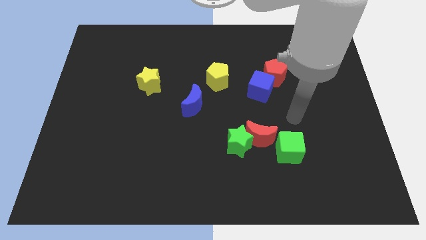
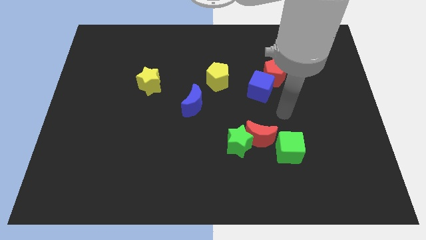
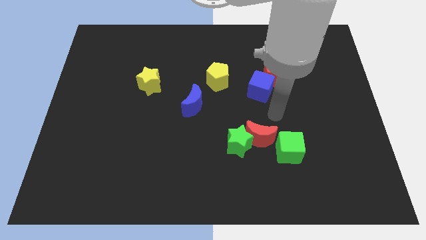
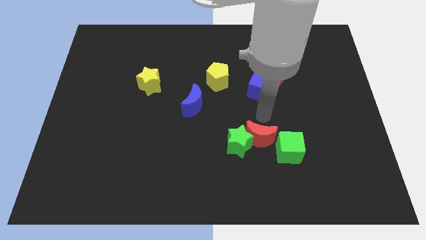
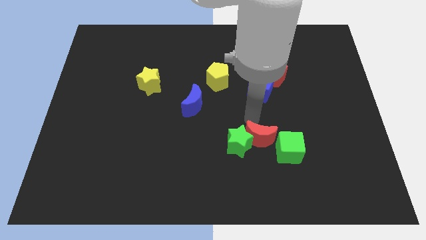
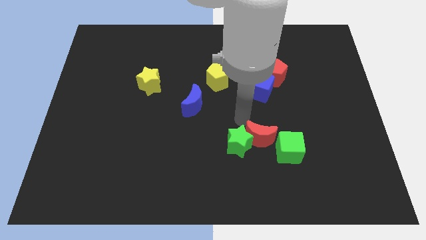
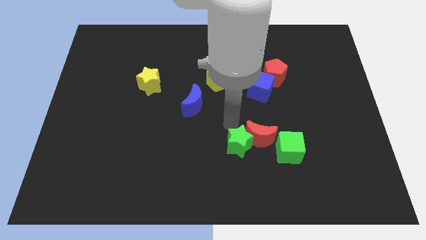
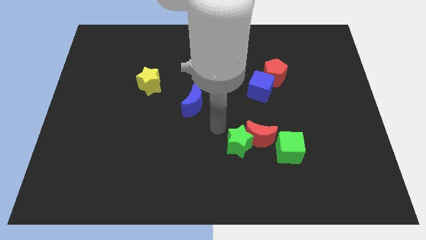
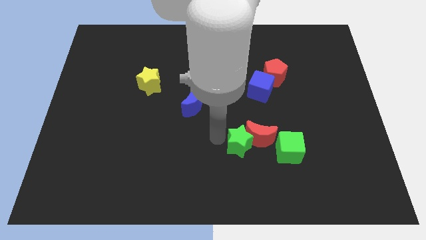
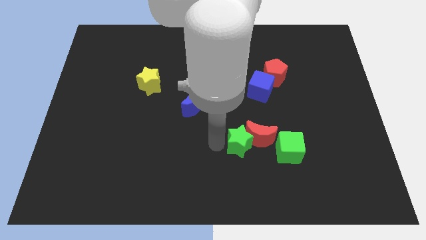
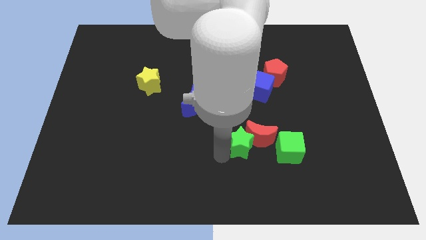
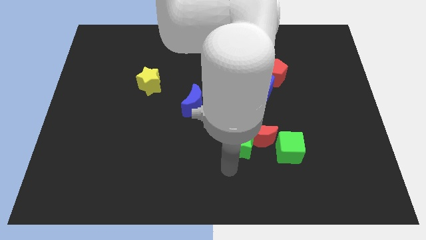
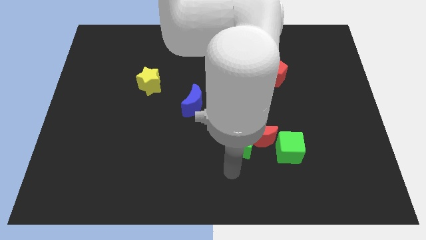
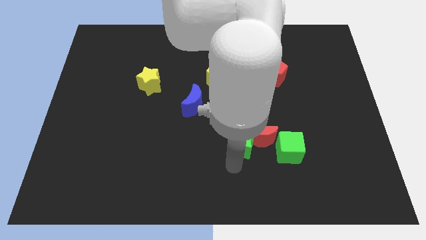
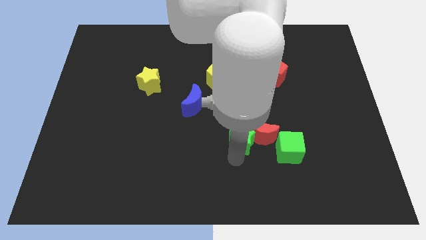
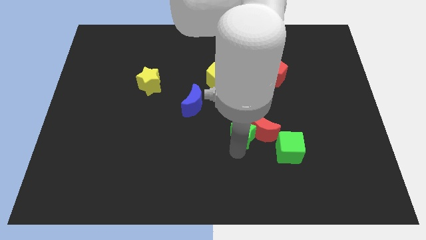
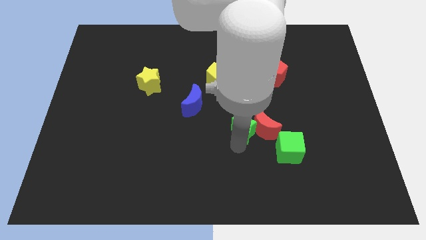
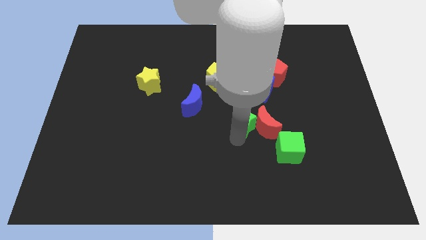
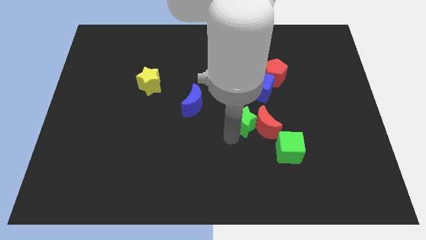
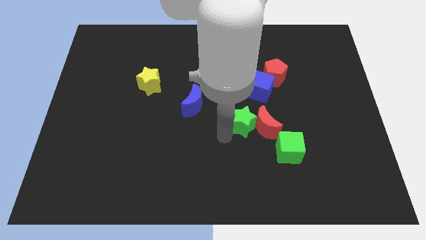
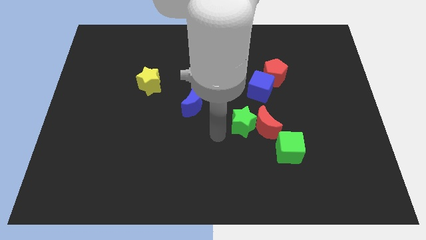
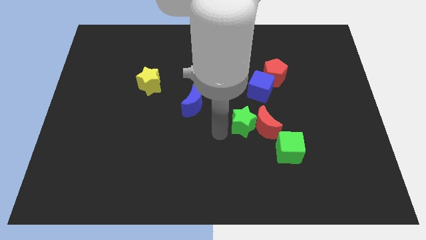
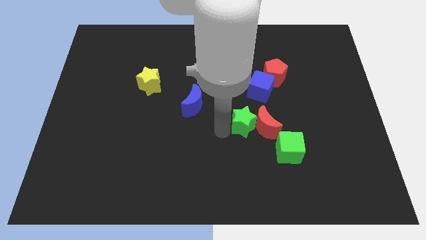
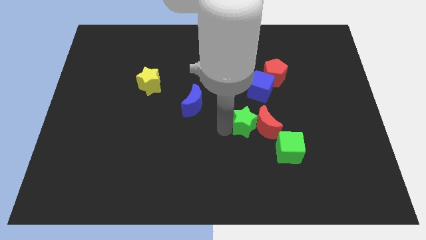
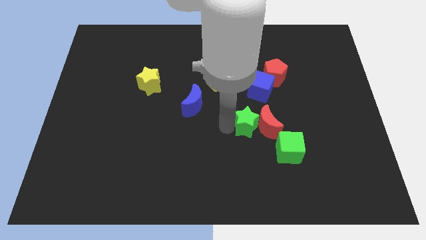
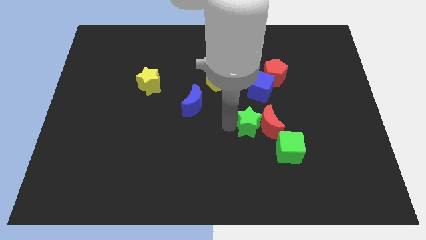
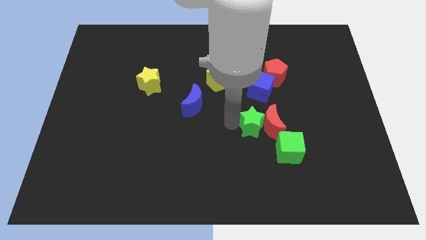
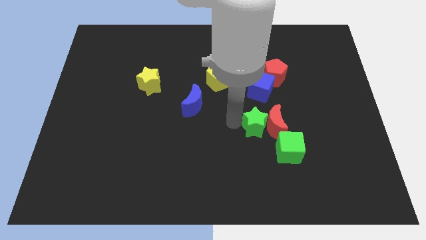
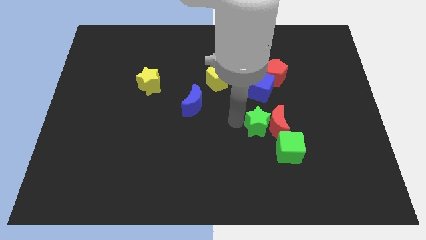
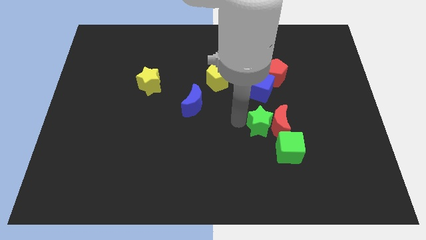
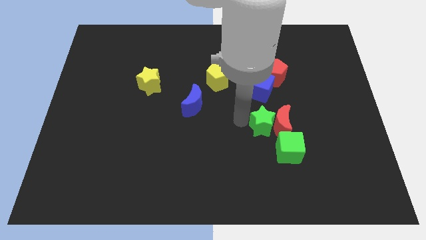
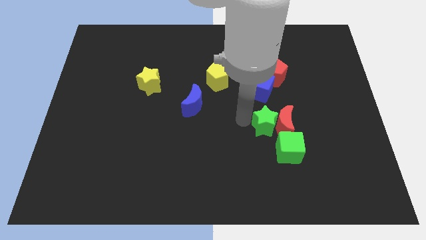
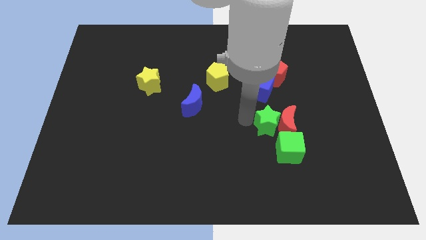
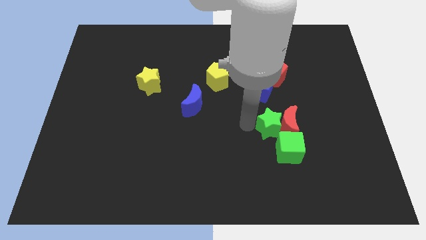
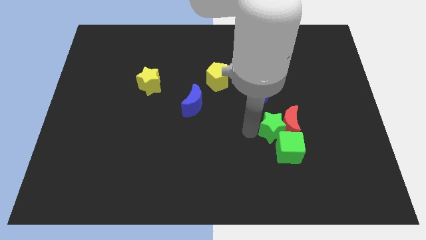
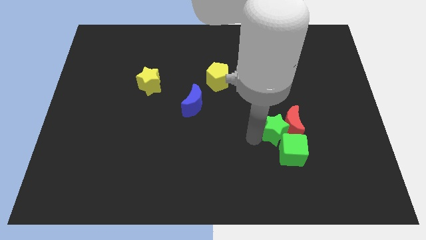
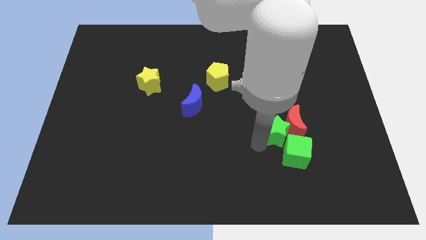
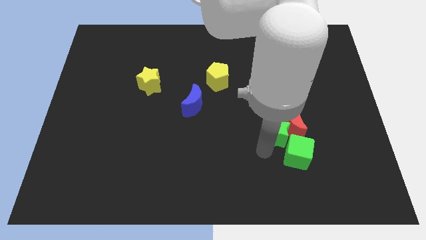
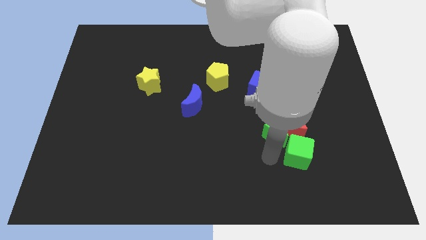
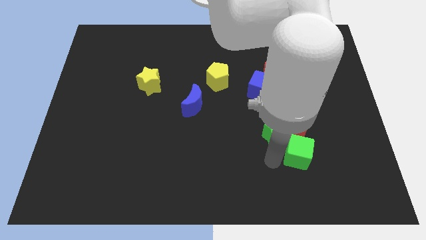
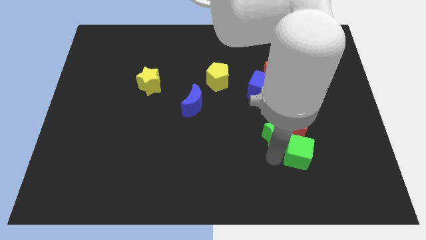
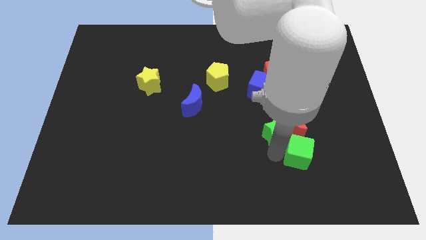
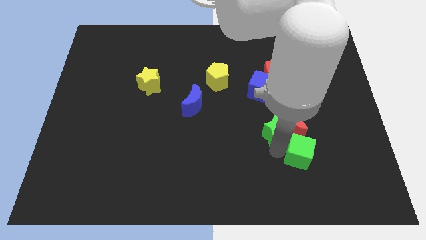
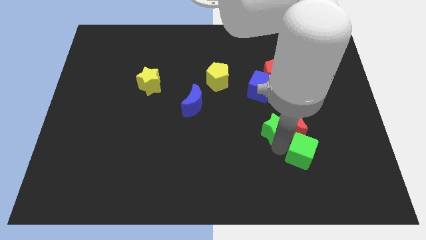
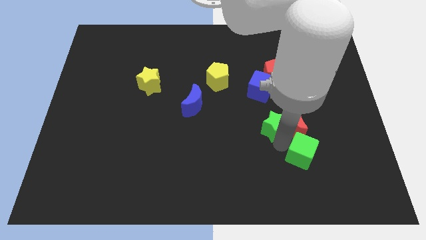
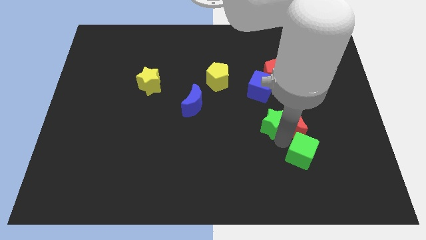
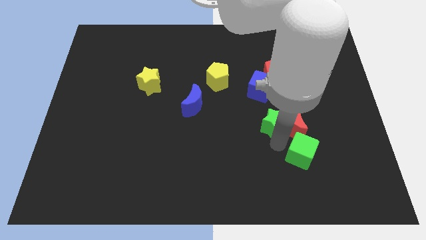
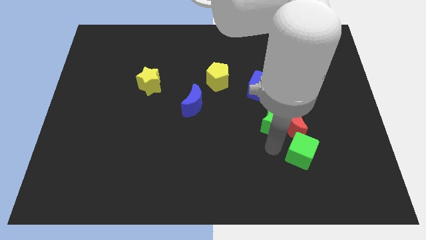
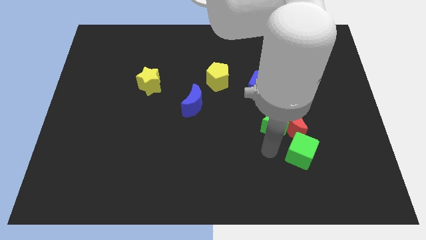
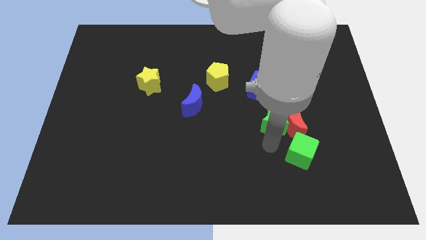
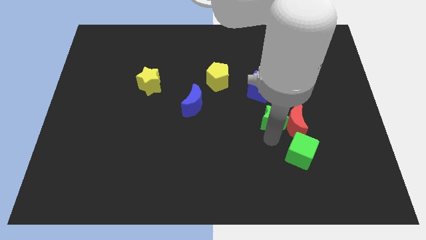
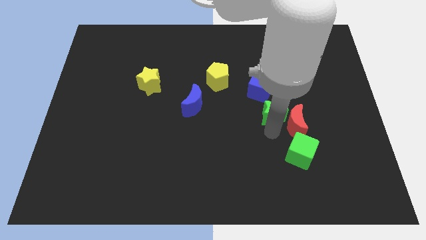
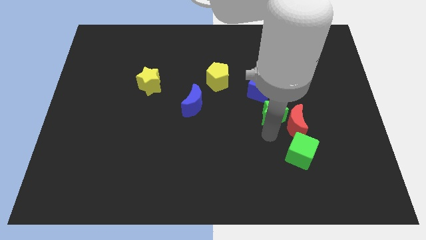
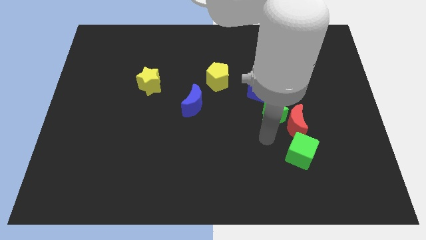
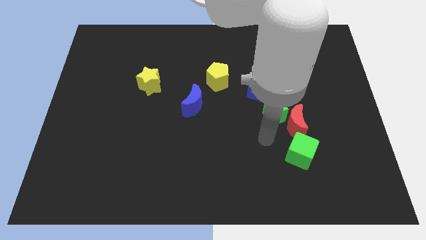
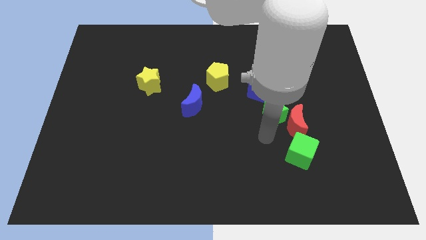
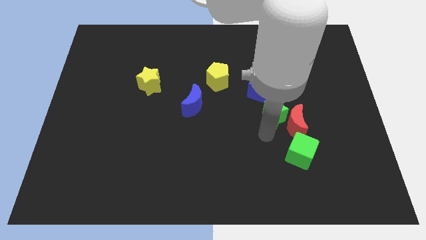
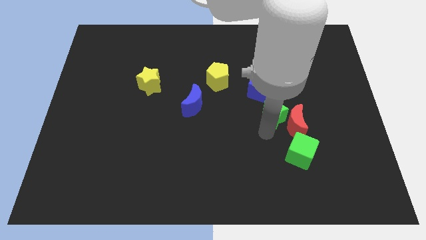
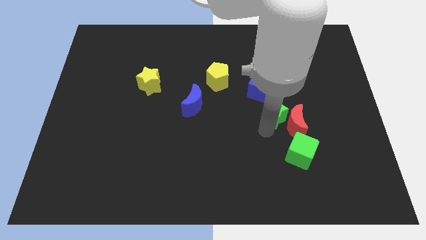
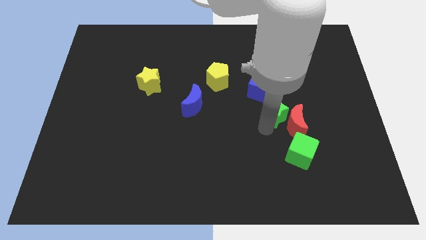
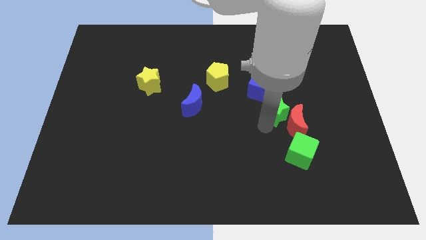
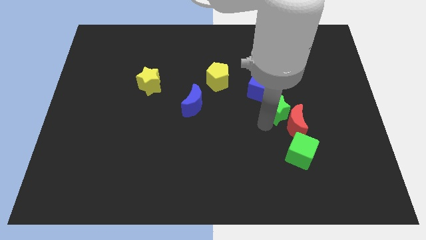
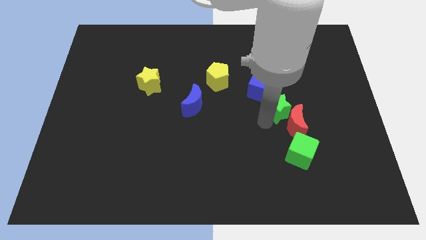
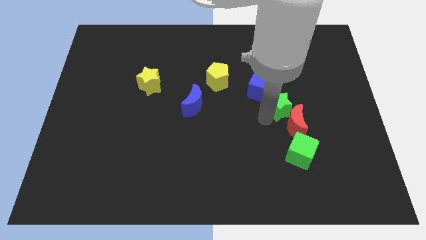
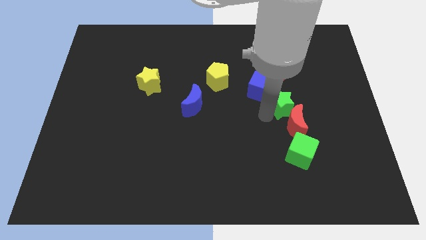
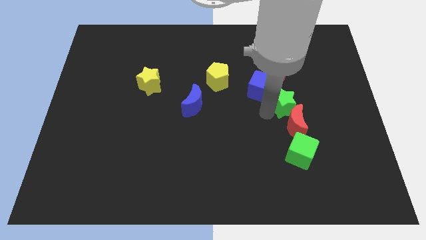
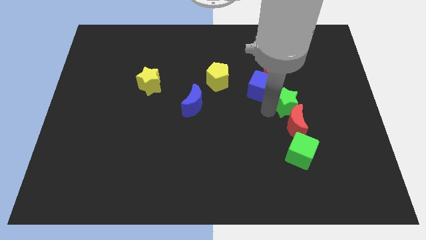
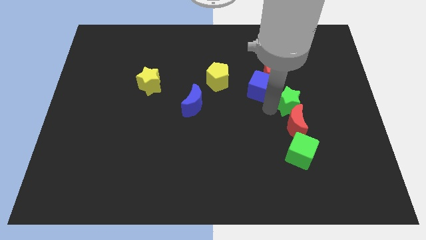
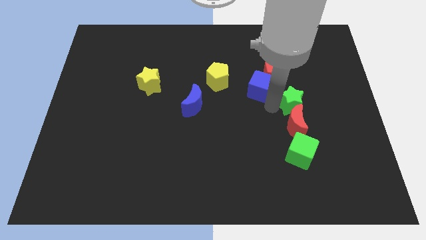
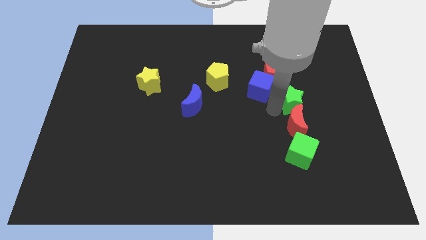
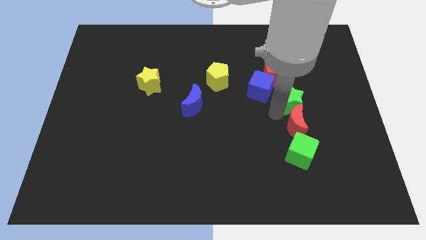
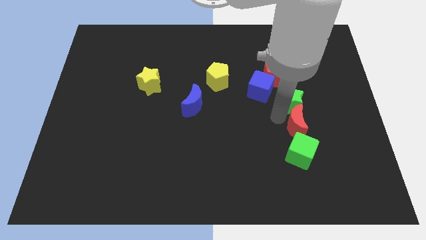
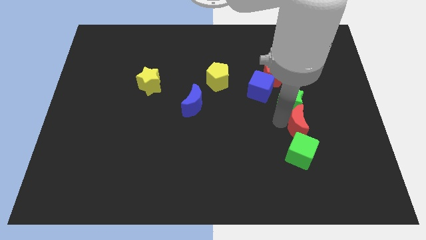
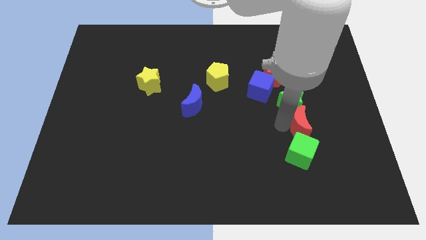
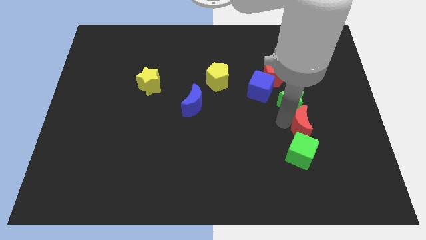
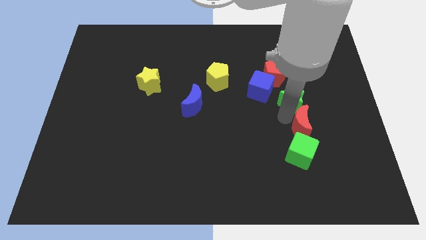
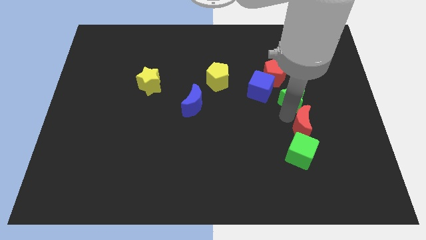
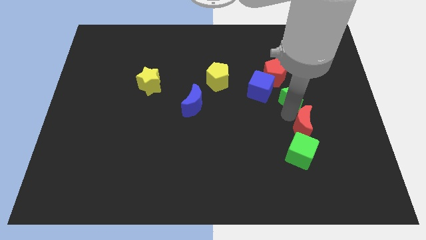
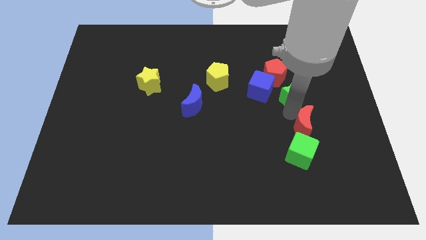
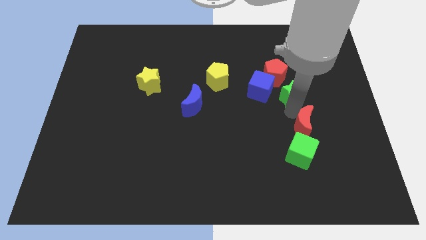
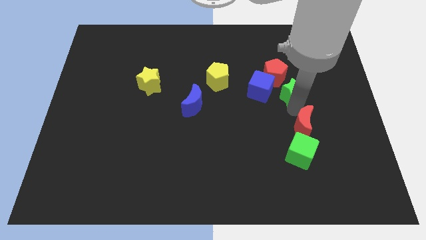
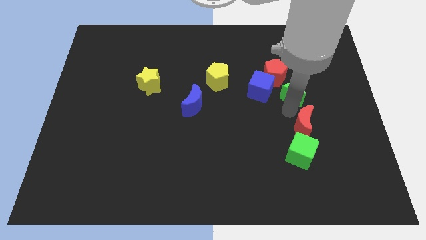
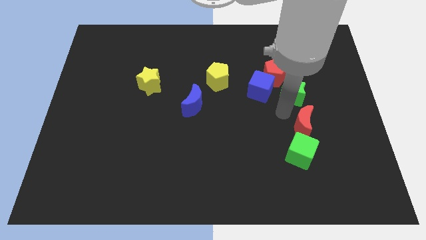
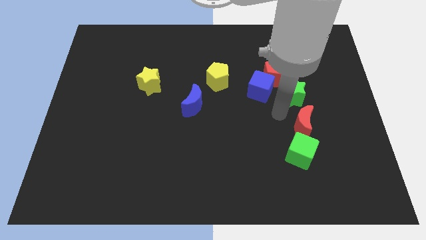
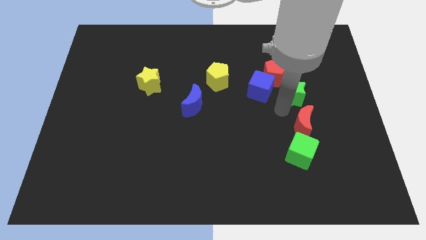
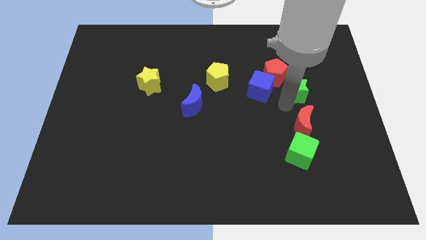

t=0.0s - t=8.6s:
move the green star up and then to the right
